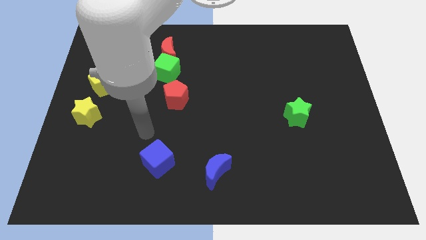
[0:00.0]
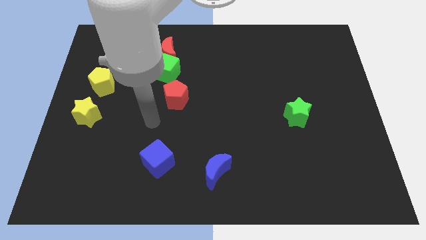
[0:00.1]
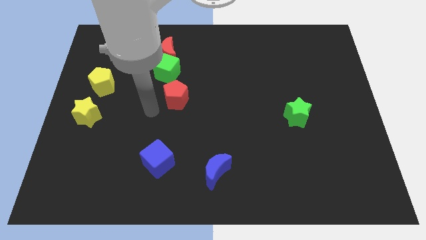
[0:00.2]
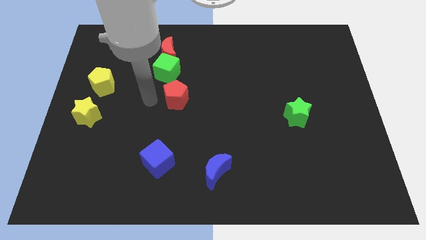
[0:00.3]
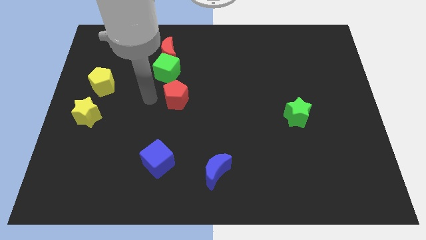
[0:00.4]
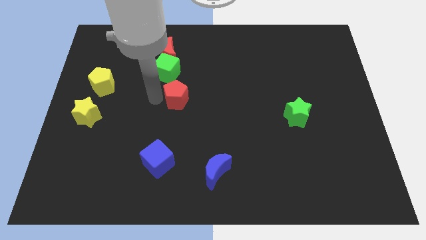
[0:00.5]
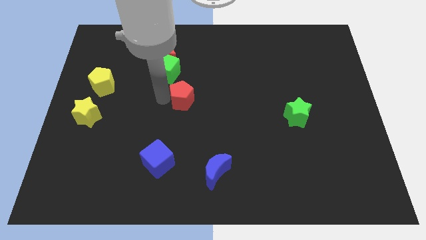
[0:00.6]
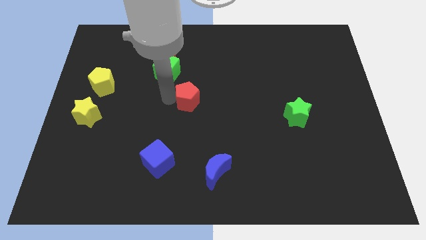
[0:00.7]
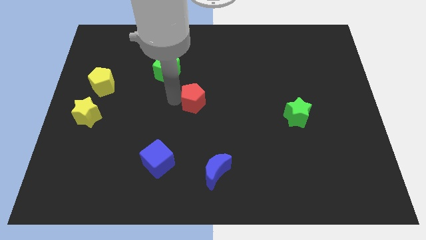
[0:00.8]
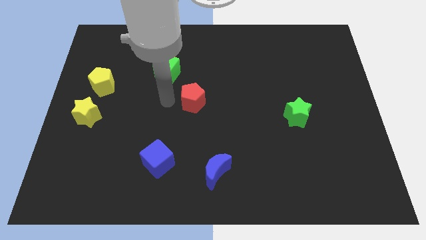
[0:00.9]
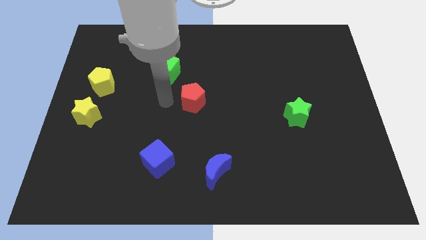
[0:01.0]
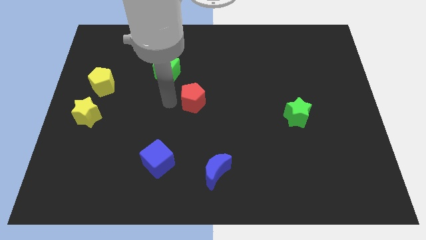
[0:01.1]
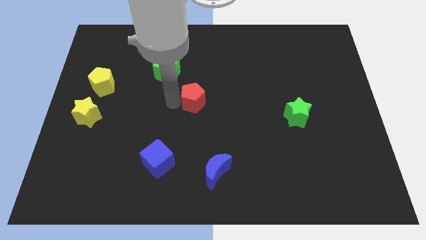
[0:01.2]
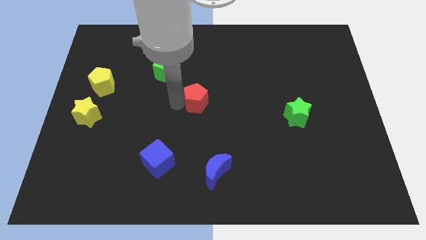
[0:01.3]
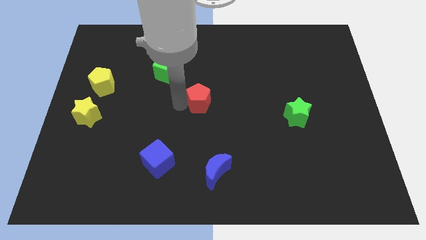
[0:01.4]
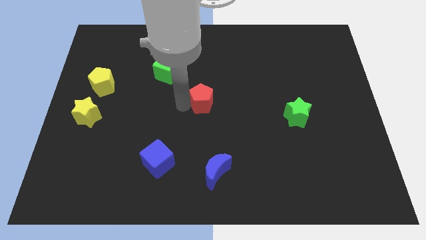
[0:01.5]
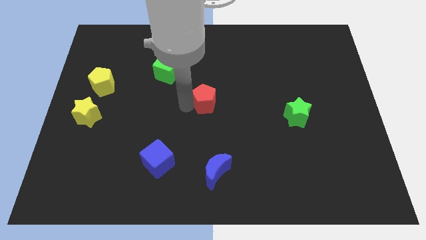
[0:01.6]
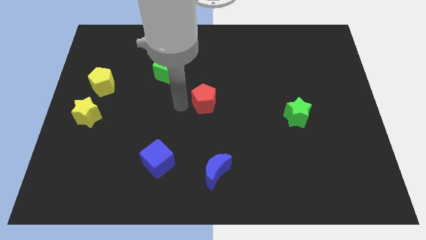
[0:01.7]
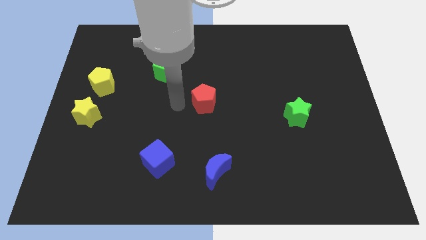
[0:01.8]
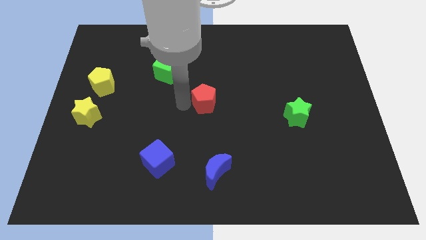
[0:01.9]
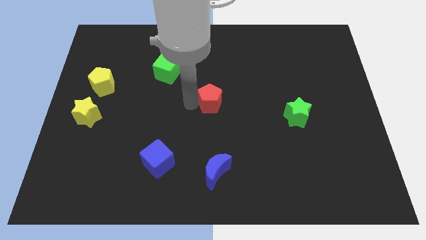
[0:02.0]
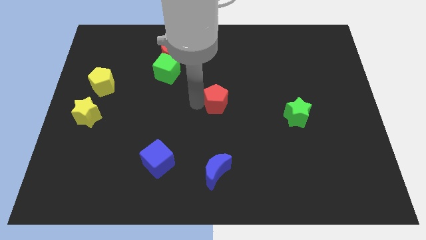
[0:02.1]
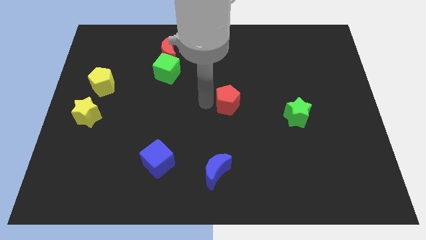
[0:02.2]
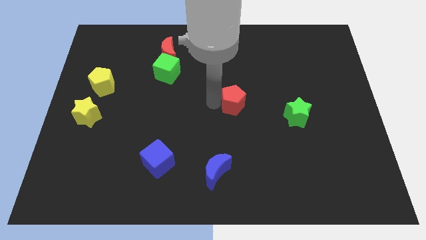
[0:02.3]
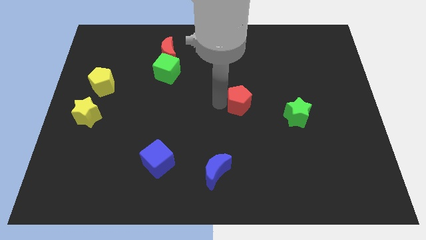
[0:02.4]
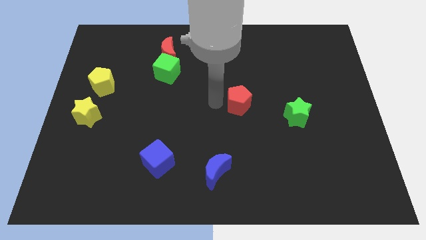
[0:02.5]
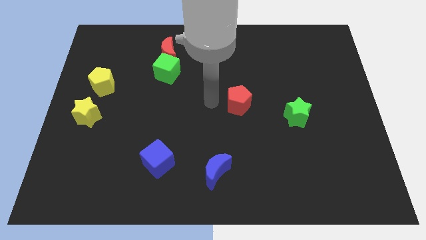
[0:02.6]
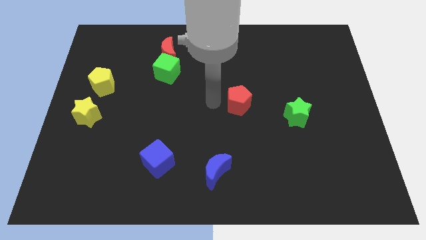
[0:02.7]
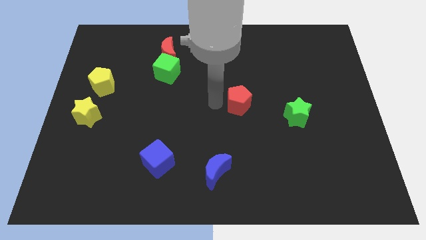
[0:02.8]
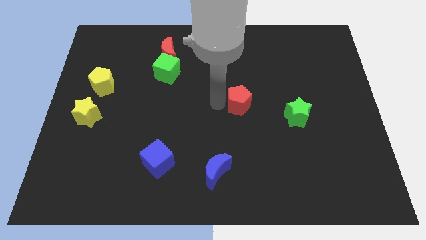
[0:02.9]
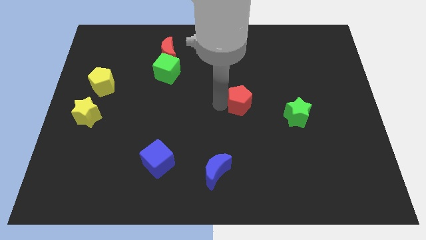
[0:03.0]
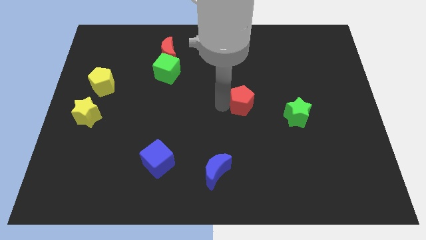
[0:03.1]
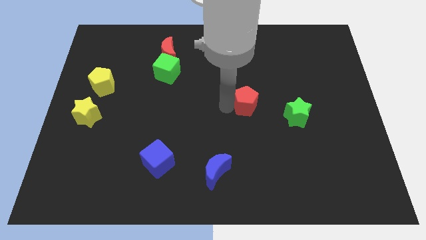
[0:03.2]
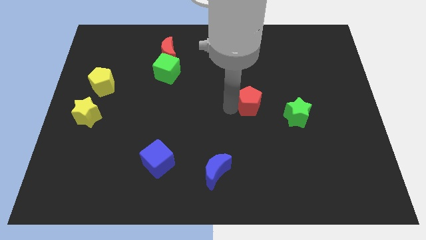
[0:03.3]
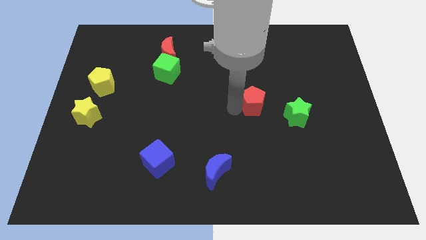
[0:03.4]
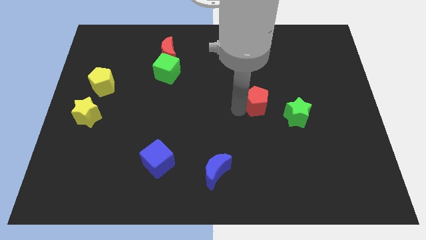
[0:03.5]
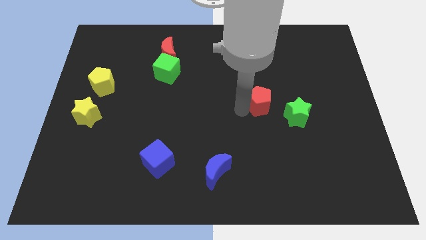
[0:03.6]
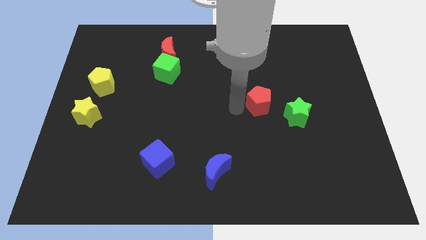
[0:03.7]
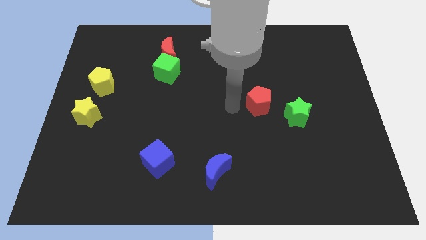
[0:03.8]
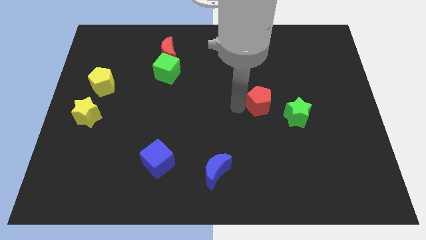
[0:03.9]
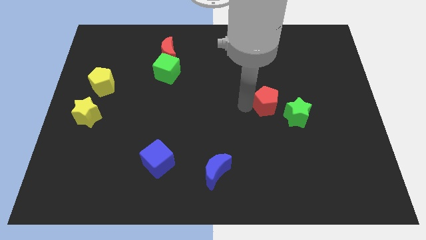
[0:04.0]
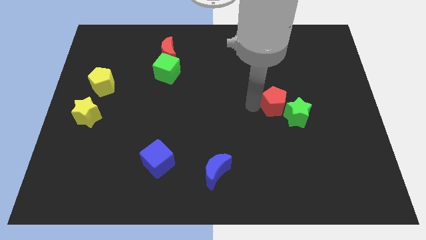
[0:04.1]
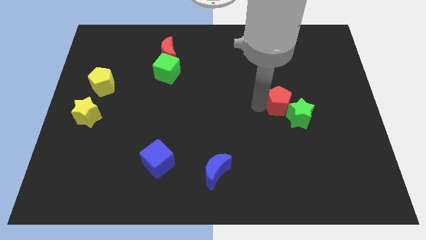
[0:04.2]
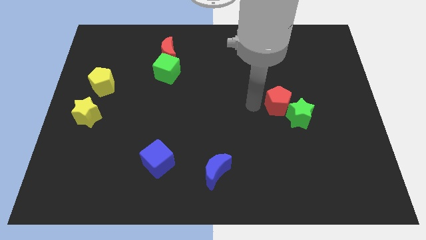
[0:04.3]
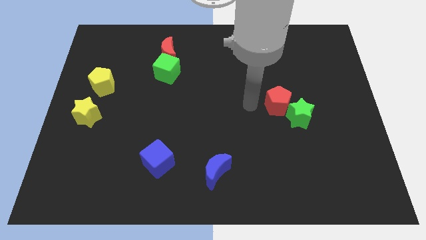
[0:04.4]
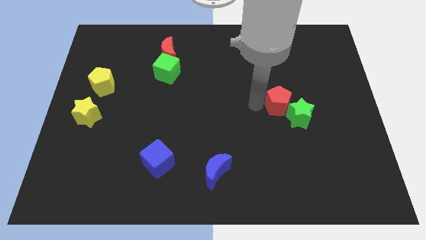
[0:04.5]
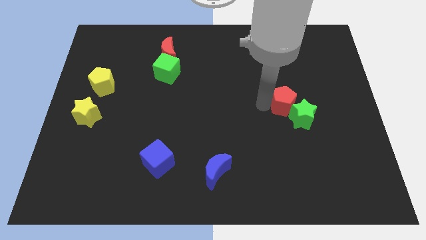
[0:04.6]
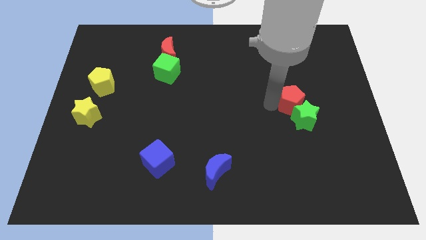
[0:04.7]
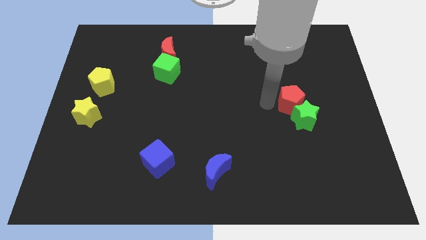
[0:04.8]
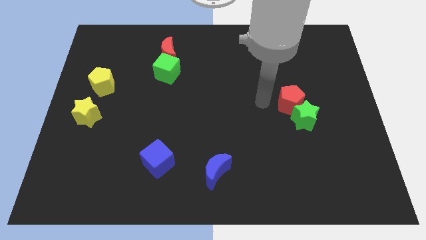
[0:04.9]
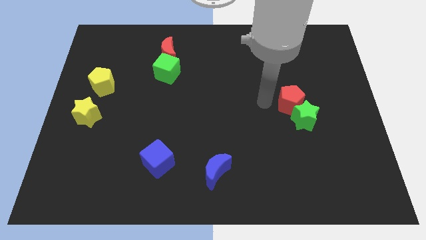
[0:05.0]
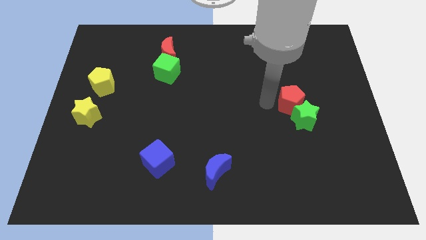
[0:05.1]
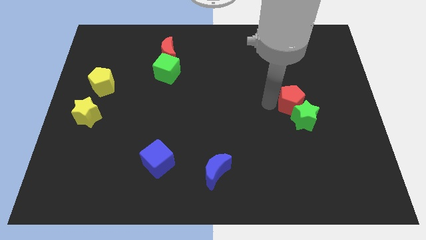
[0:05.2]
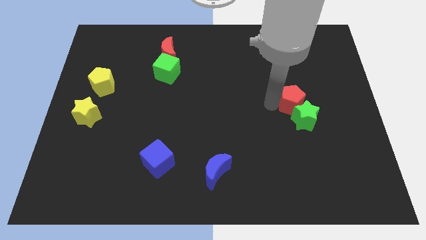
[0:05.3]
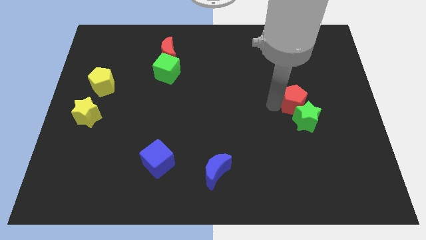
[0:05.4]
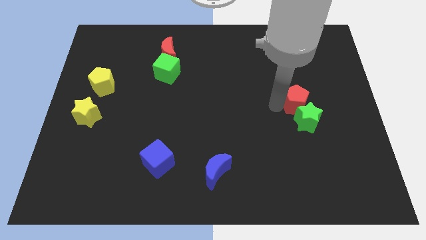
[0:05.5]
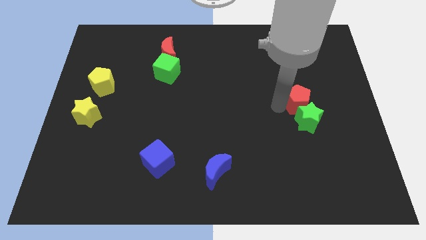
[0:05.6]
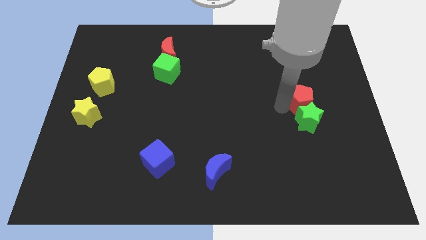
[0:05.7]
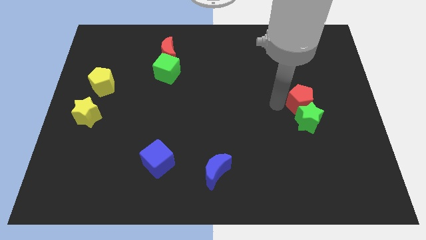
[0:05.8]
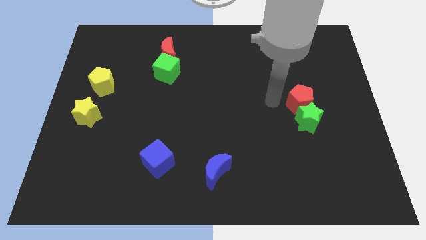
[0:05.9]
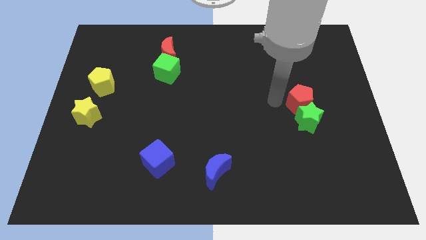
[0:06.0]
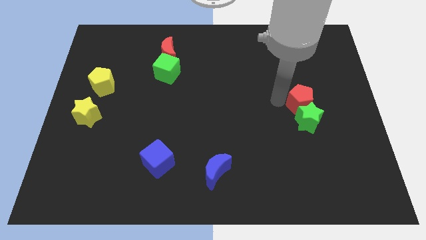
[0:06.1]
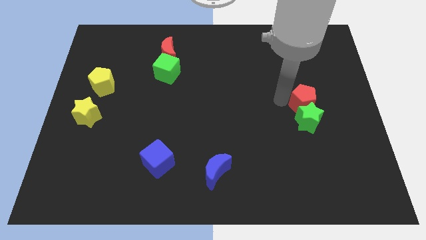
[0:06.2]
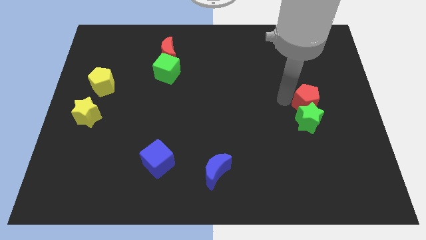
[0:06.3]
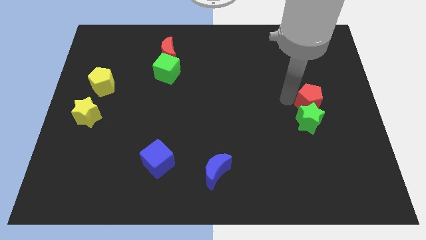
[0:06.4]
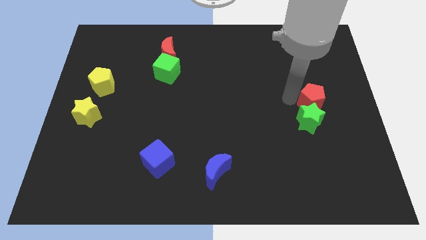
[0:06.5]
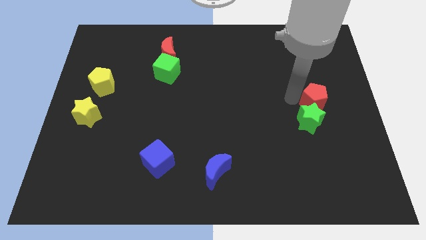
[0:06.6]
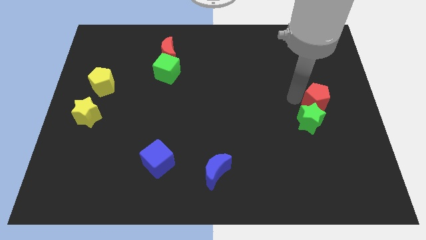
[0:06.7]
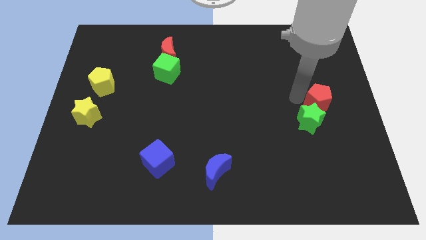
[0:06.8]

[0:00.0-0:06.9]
push the red pentagon to the right side

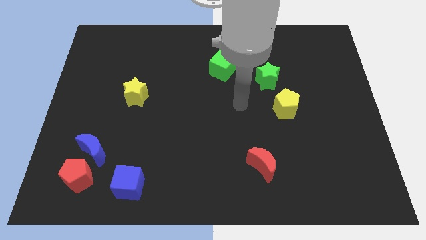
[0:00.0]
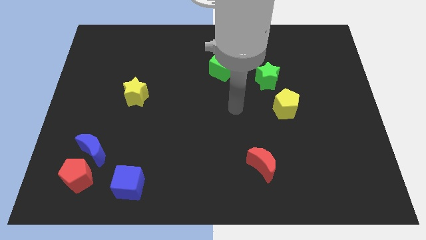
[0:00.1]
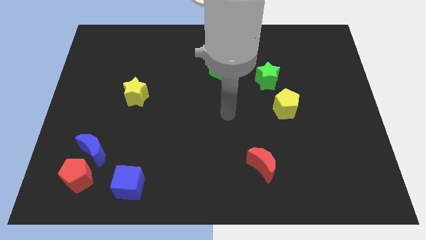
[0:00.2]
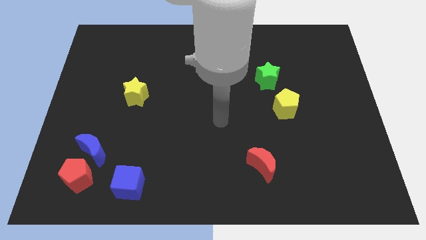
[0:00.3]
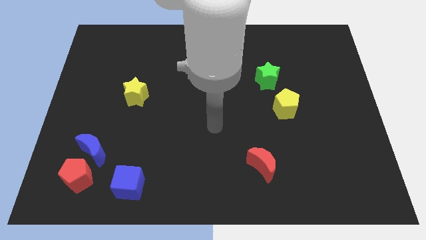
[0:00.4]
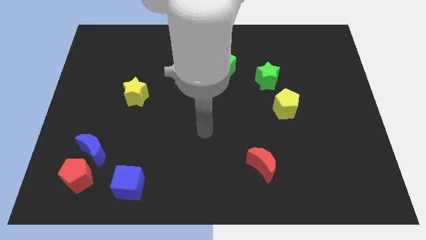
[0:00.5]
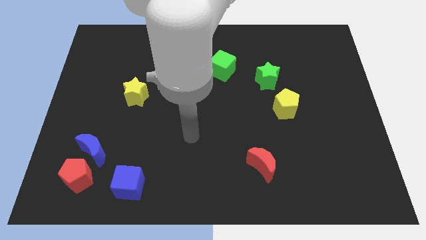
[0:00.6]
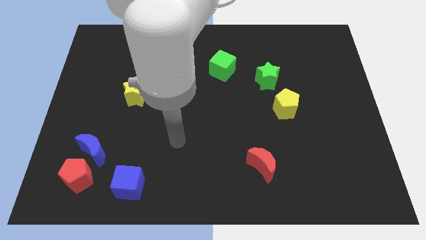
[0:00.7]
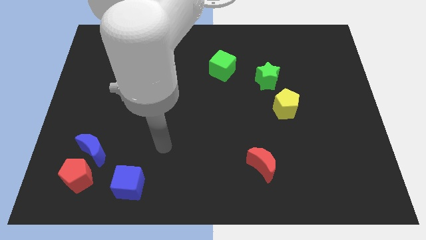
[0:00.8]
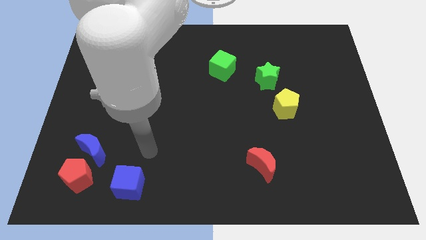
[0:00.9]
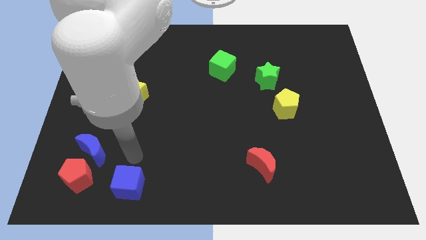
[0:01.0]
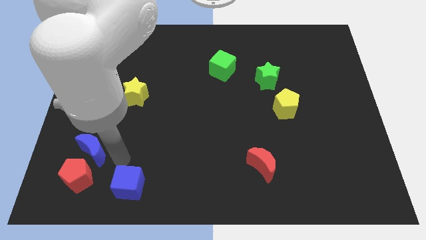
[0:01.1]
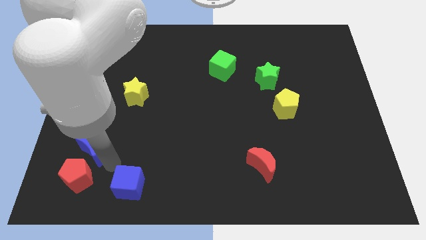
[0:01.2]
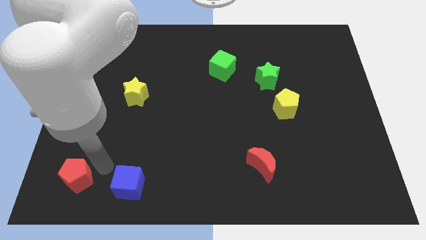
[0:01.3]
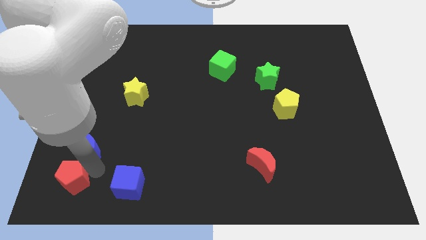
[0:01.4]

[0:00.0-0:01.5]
push the red pentagon to the bottom left corner
